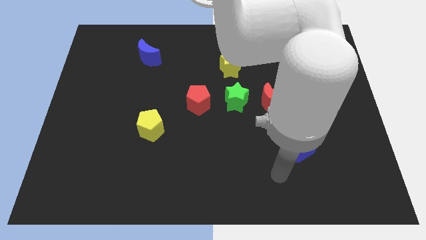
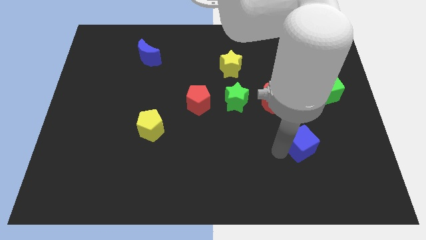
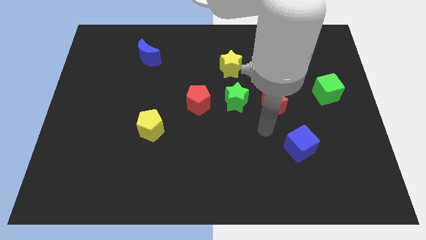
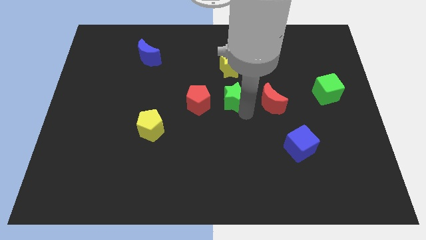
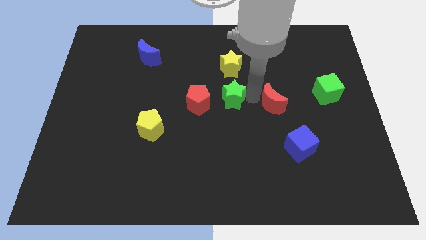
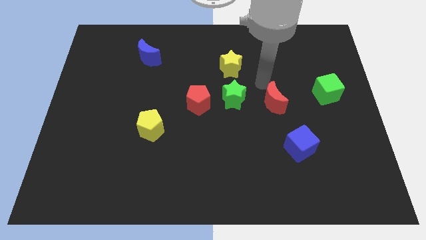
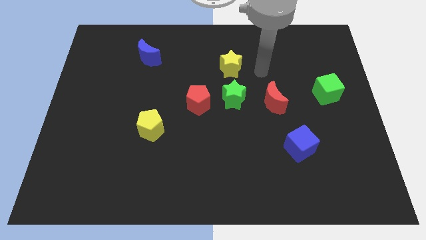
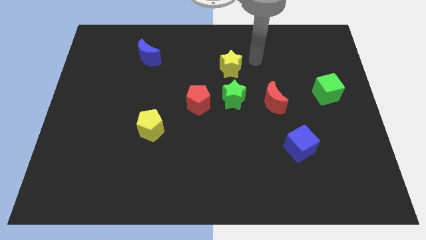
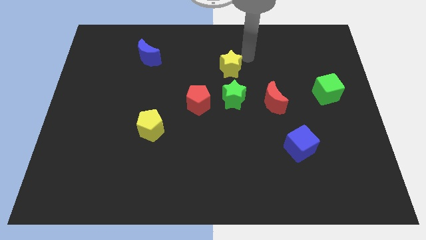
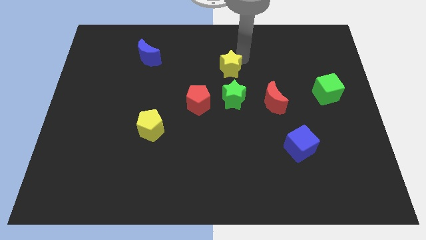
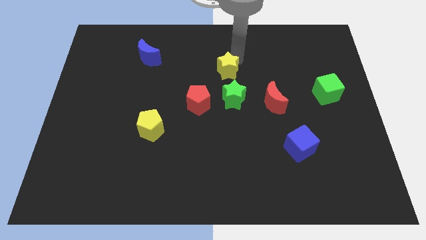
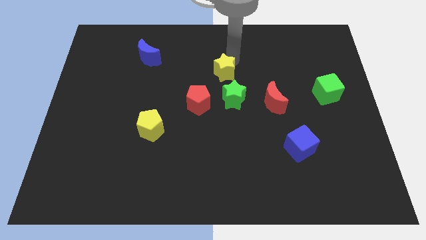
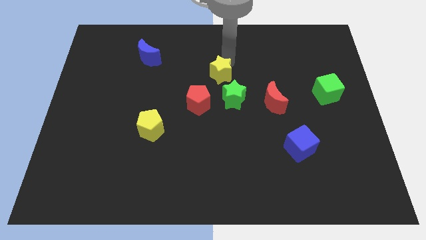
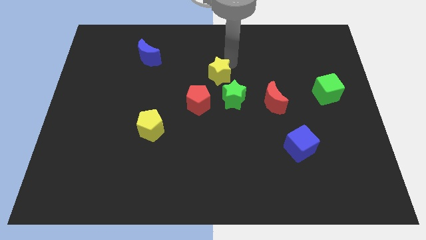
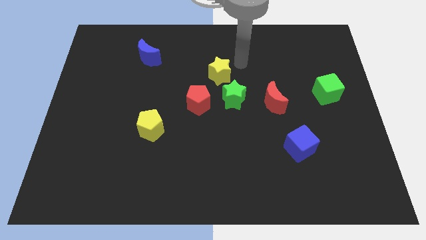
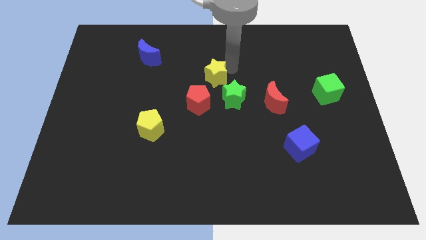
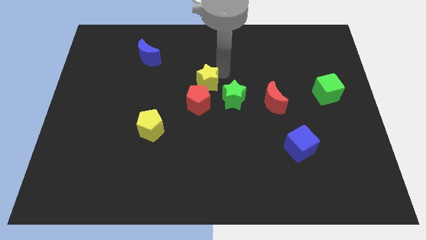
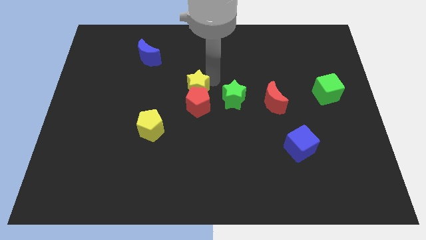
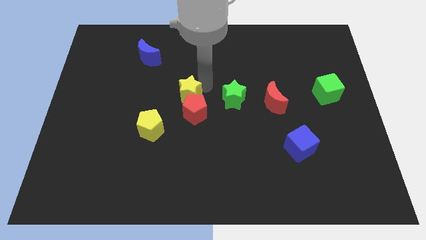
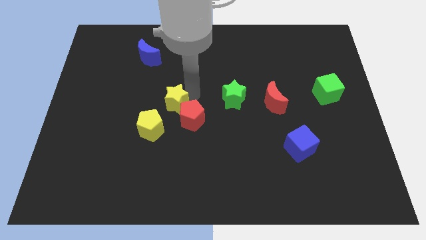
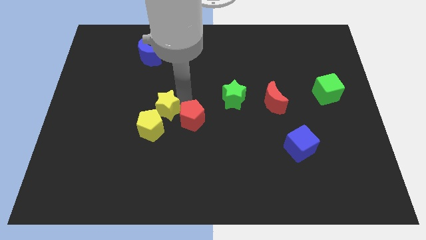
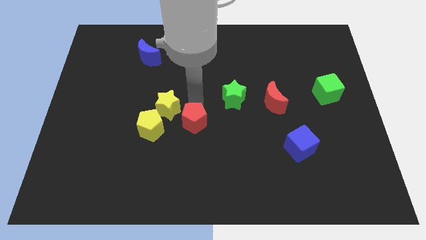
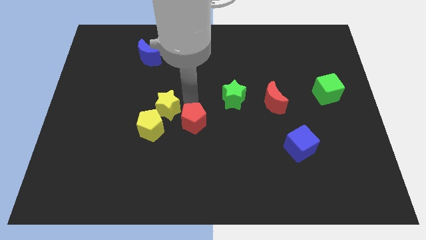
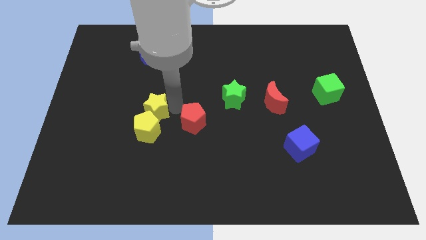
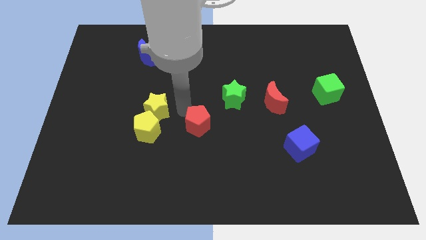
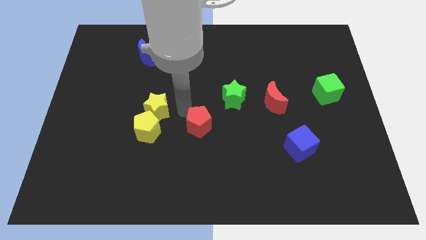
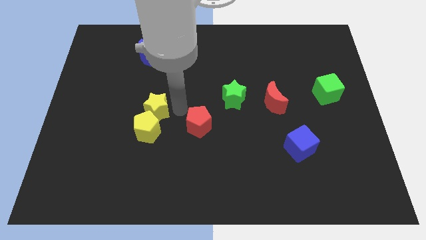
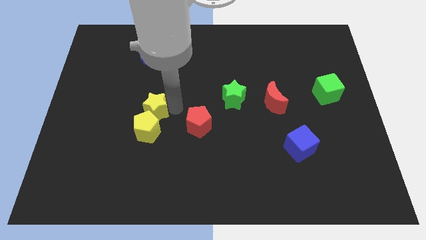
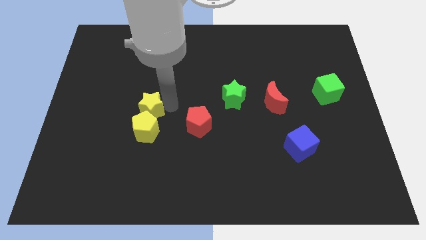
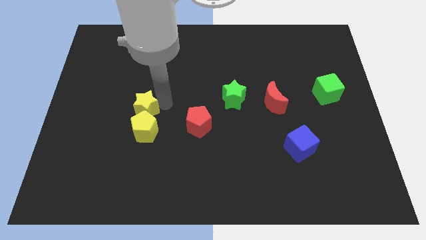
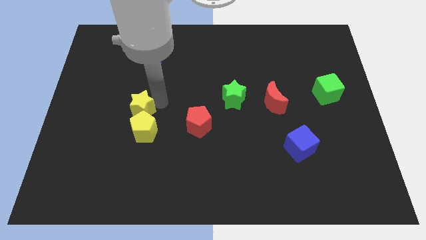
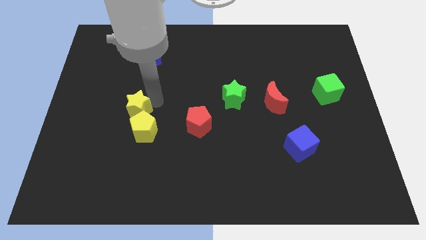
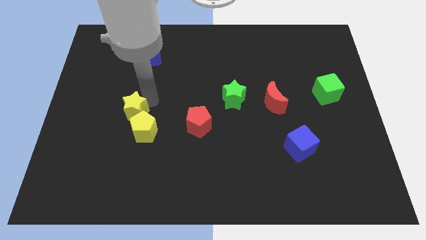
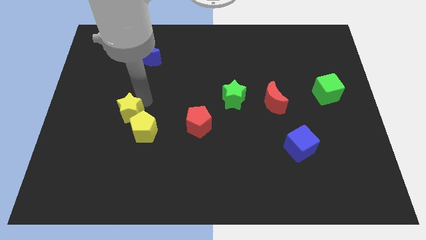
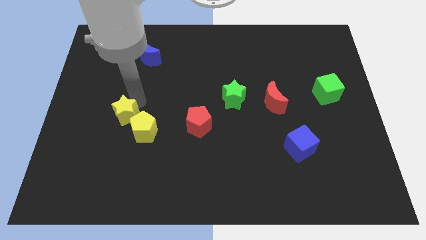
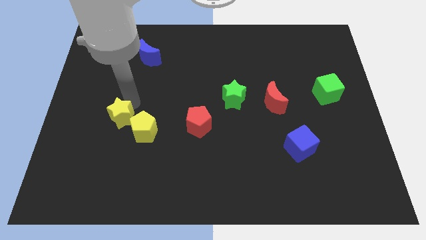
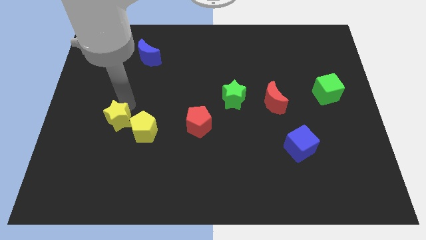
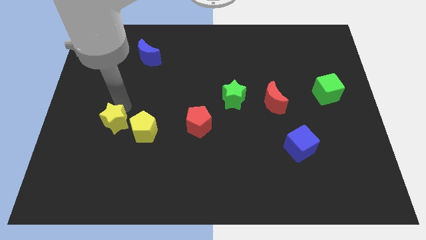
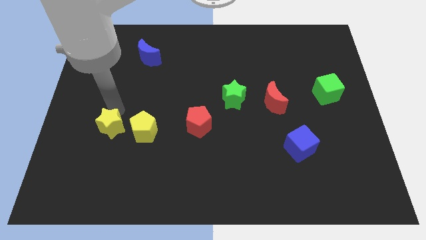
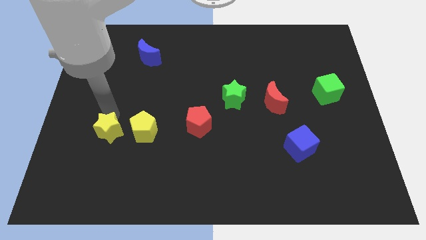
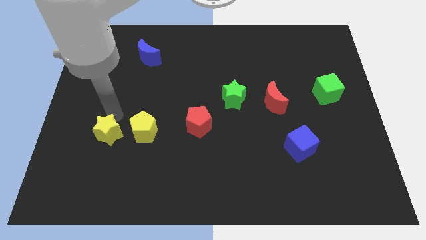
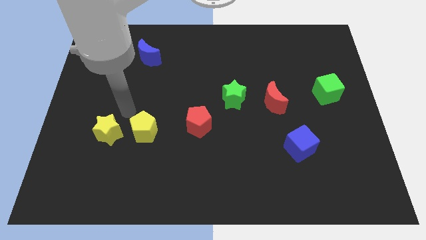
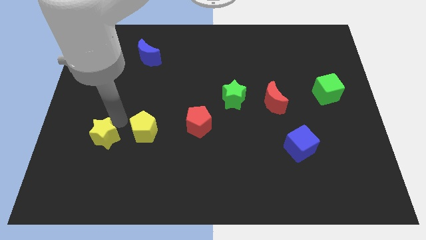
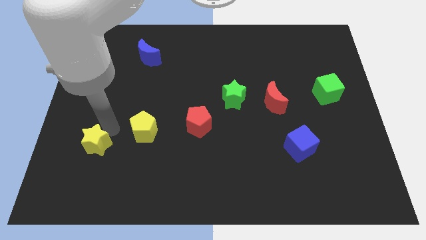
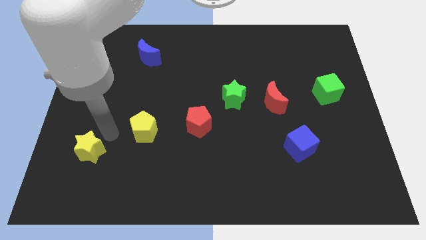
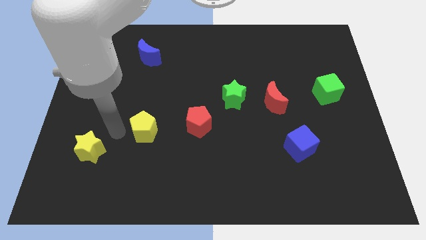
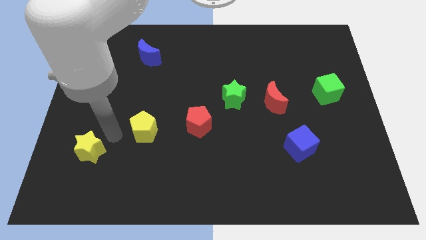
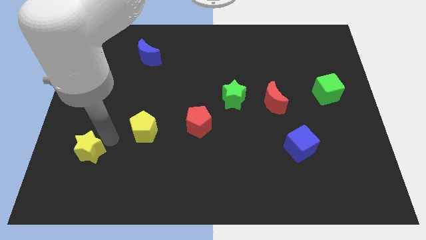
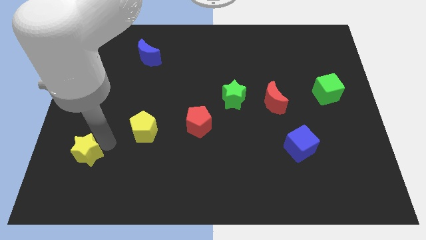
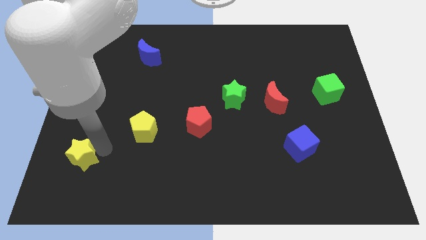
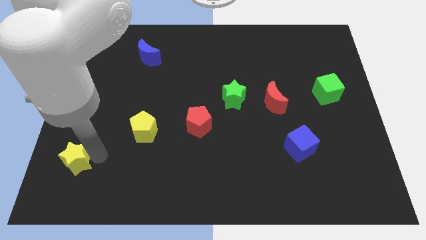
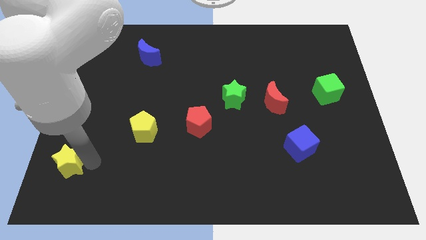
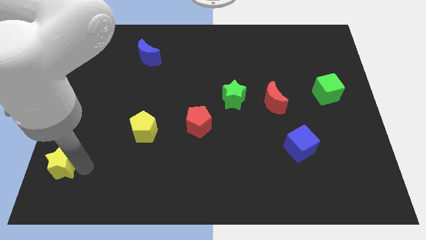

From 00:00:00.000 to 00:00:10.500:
push the yellow star to the bottom left

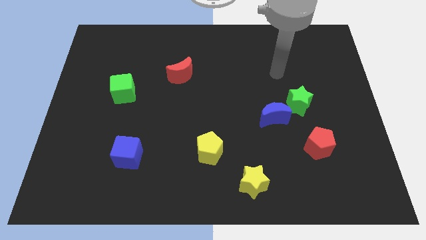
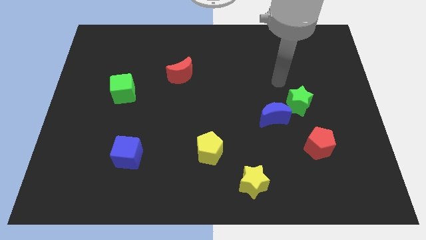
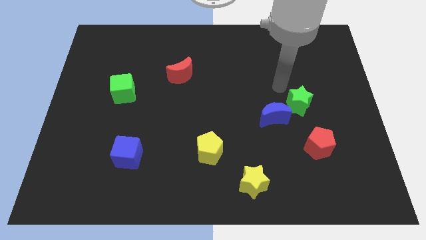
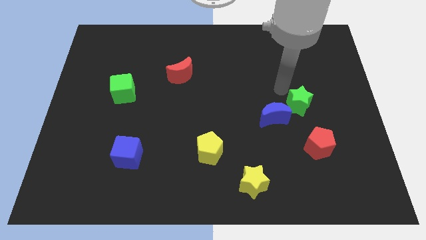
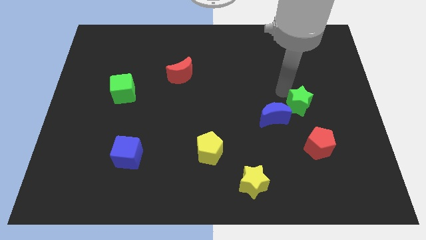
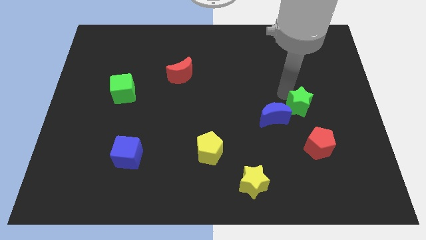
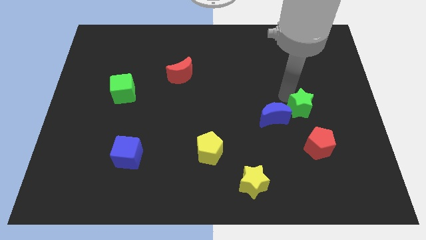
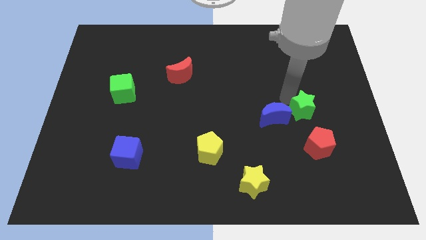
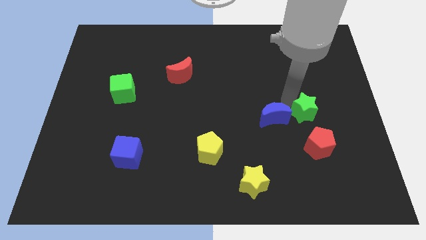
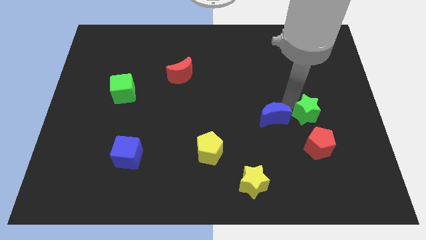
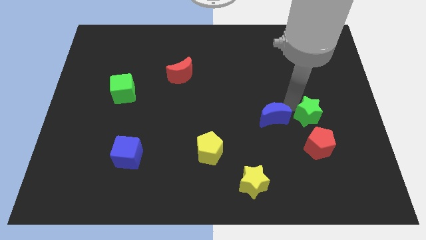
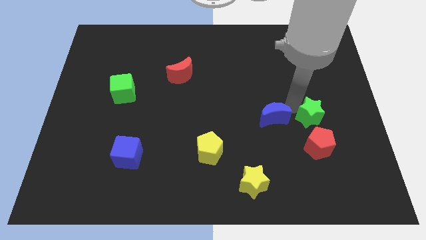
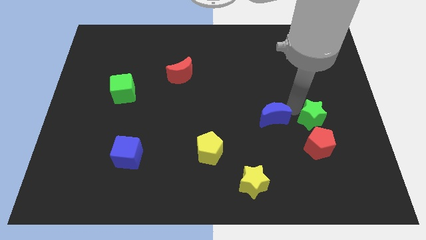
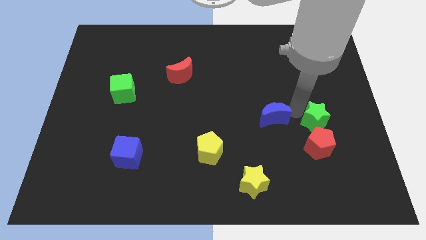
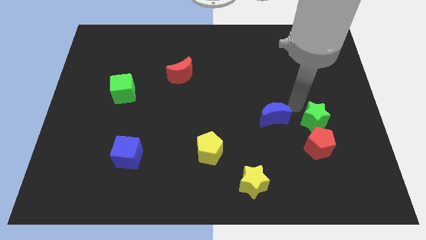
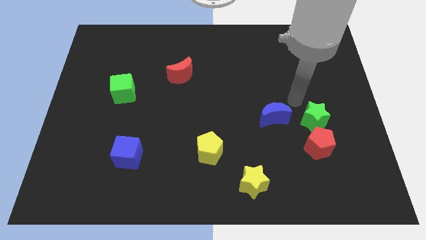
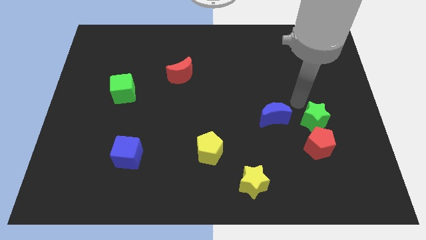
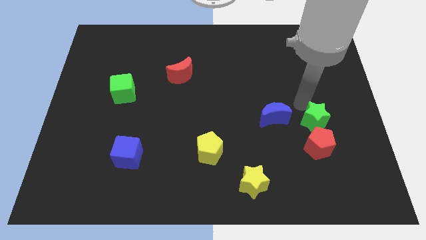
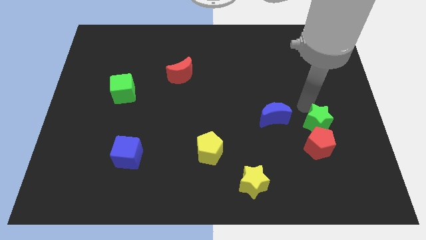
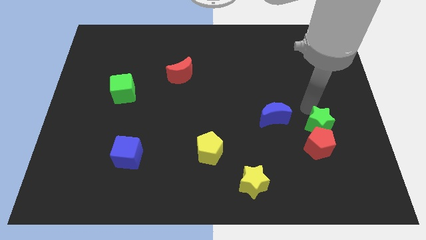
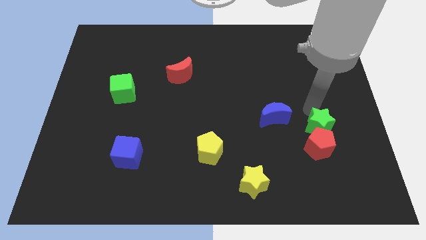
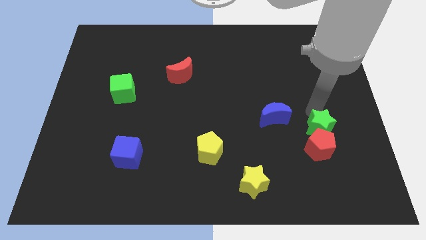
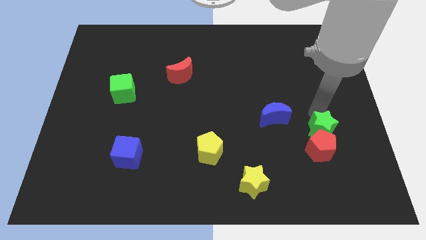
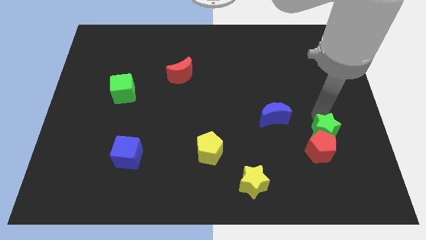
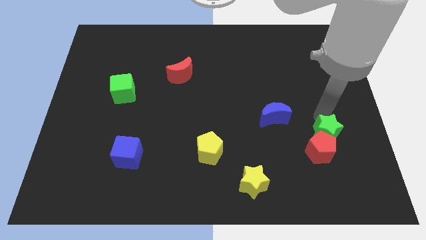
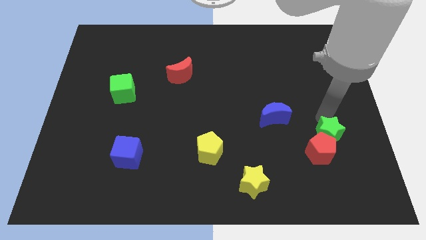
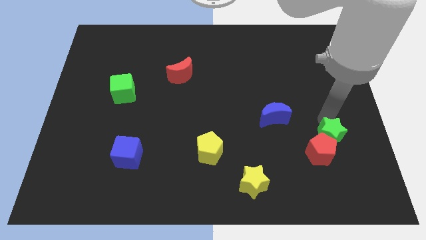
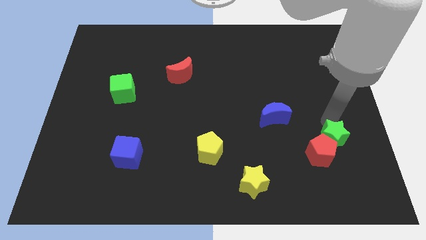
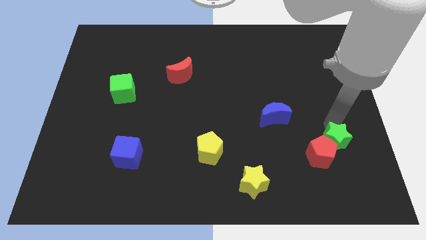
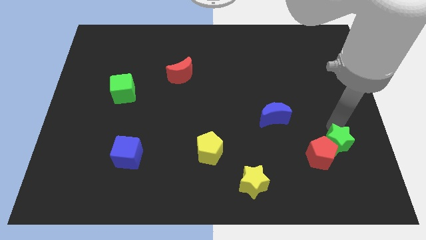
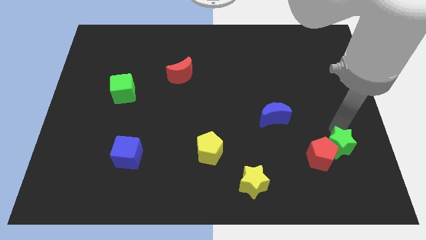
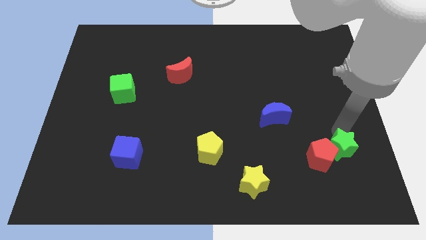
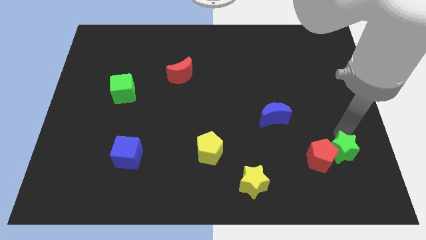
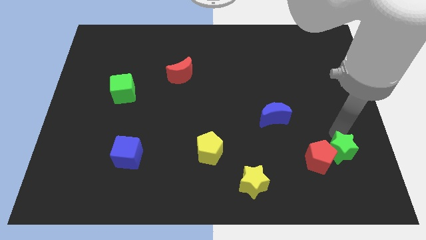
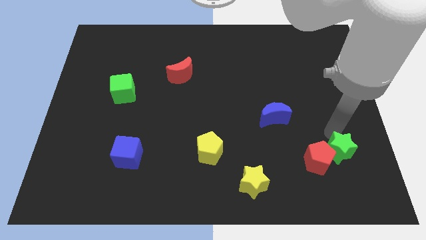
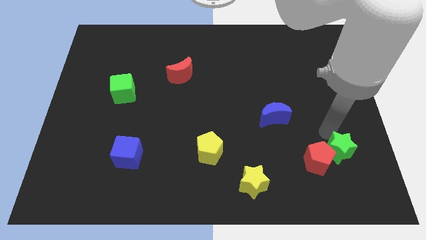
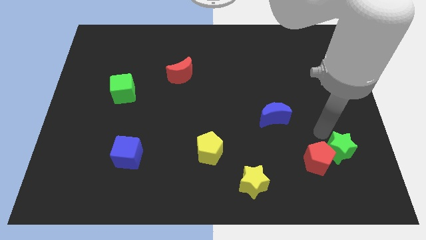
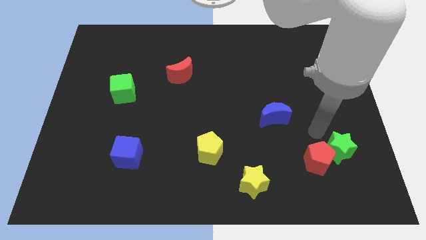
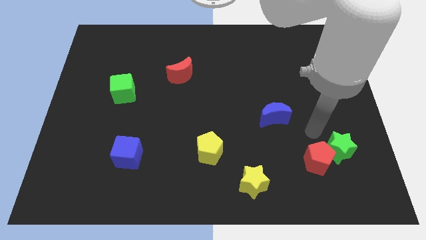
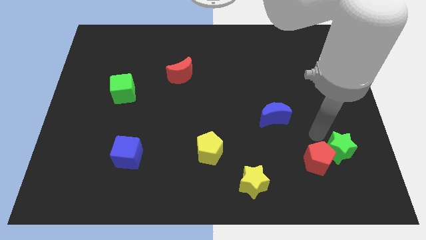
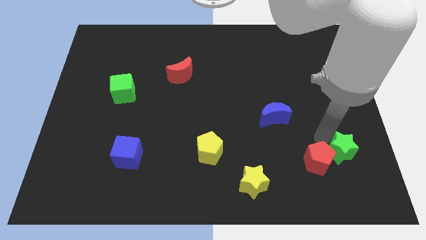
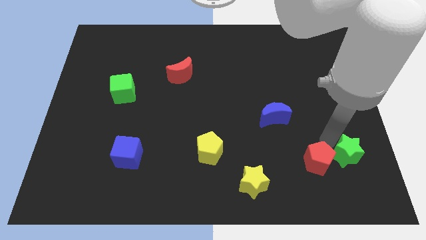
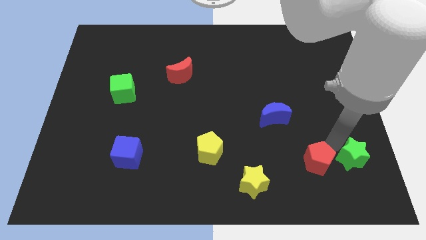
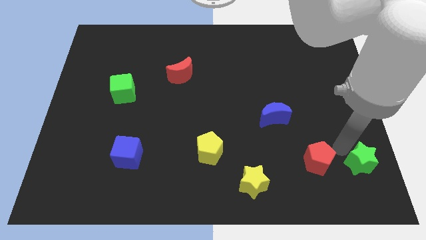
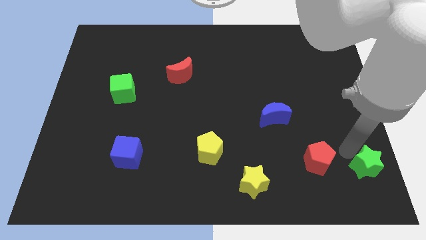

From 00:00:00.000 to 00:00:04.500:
slide the green star to the bottom right
